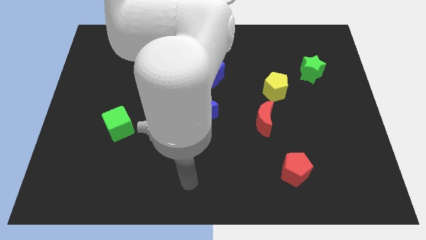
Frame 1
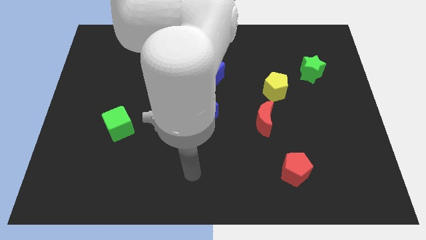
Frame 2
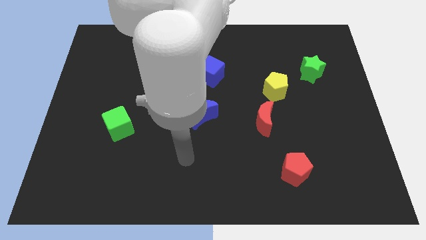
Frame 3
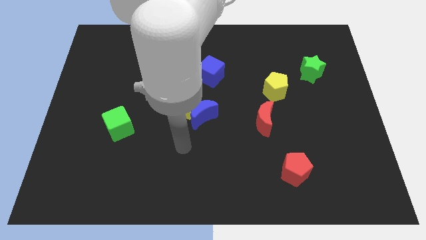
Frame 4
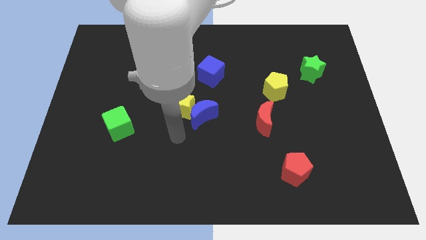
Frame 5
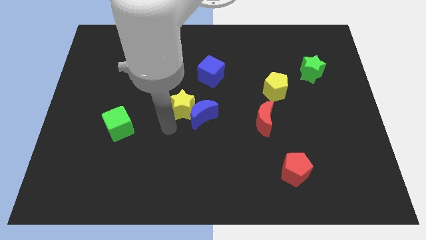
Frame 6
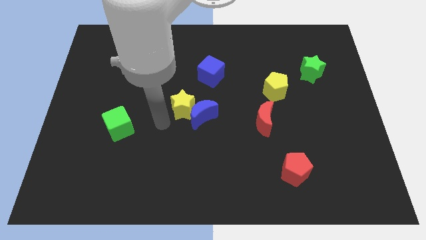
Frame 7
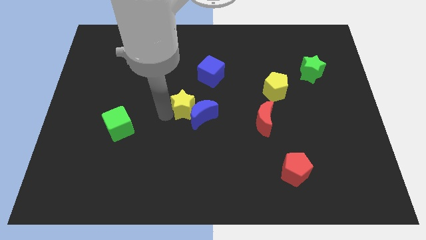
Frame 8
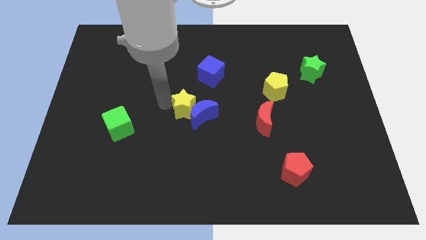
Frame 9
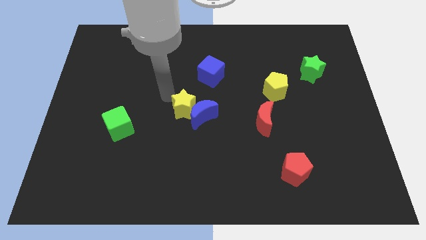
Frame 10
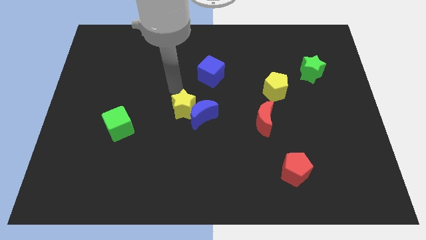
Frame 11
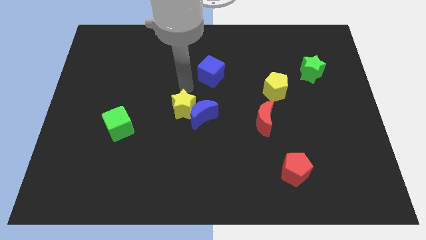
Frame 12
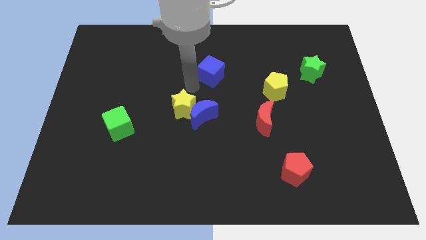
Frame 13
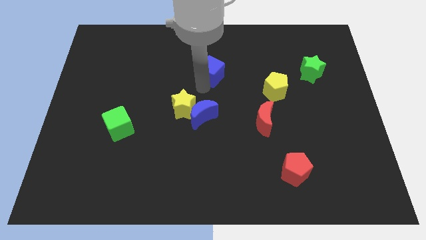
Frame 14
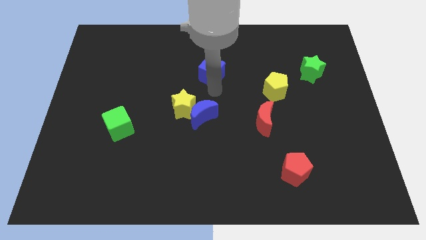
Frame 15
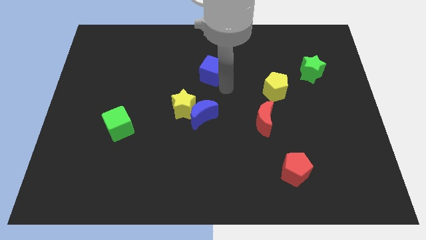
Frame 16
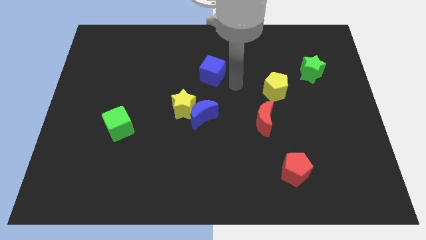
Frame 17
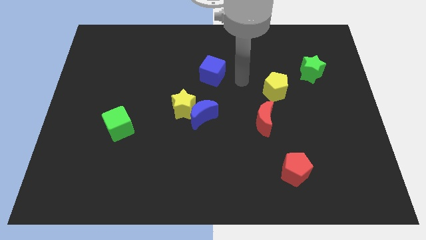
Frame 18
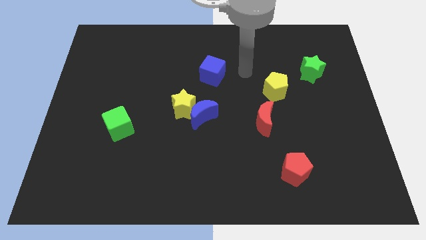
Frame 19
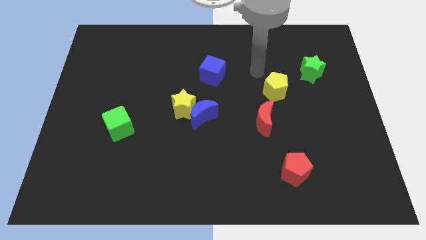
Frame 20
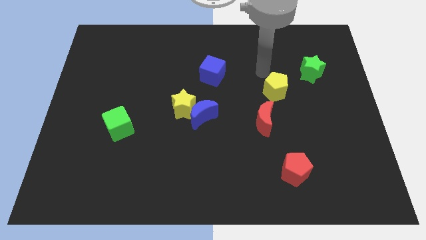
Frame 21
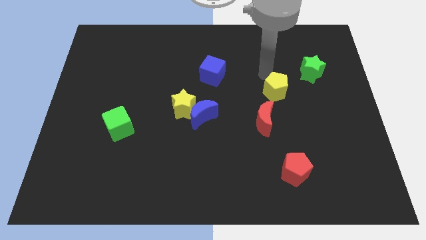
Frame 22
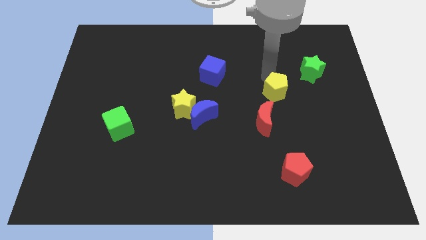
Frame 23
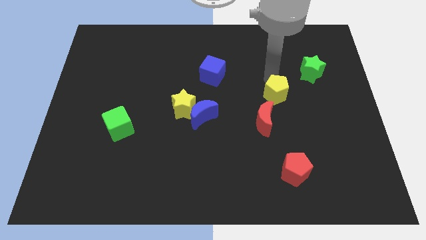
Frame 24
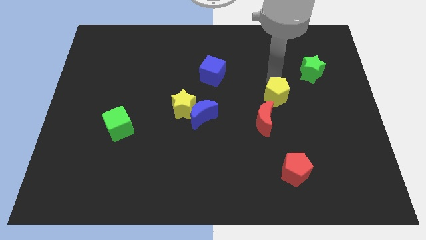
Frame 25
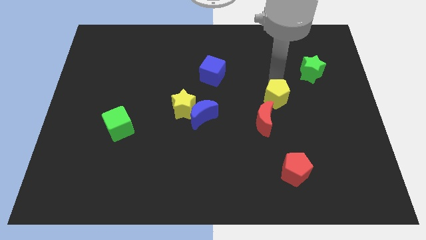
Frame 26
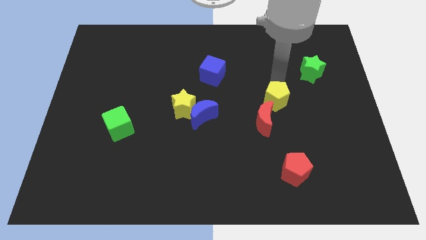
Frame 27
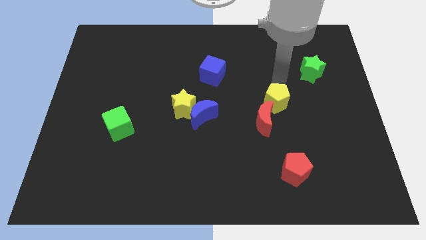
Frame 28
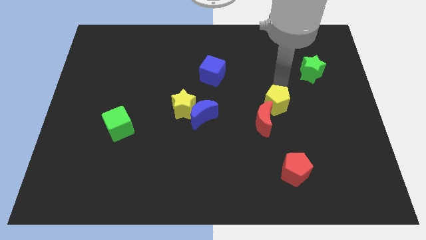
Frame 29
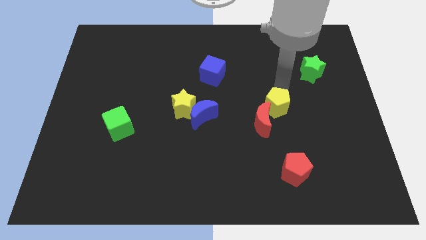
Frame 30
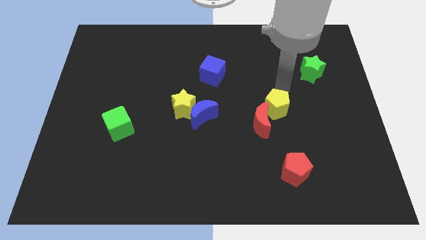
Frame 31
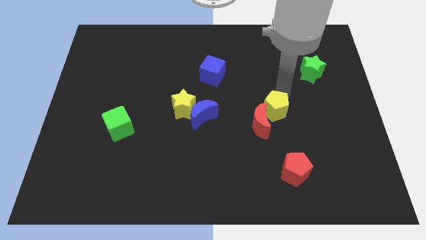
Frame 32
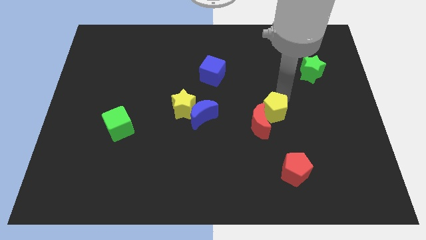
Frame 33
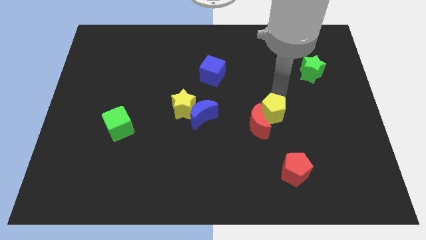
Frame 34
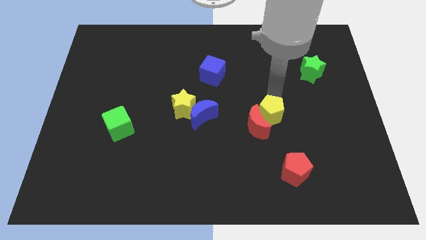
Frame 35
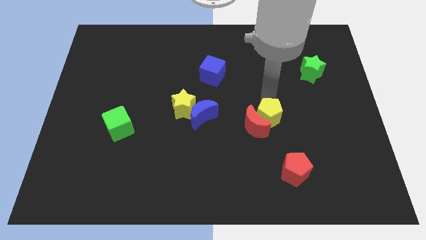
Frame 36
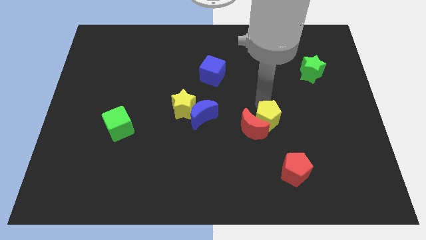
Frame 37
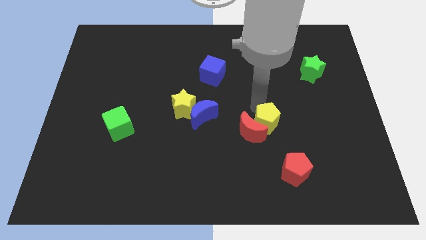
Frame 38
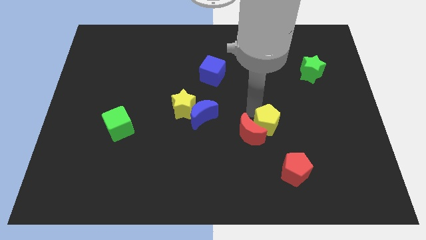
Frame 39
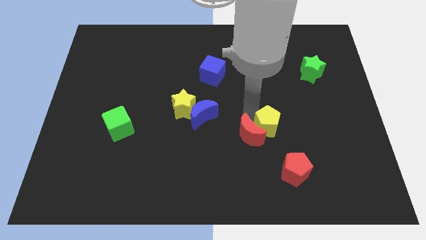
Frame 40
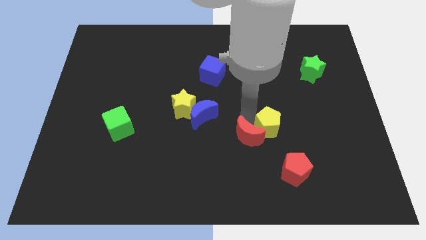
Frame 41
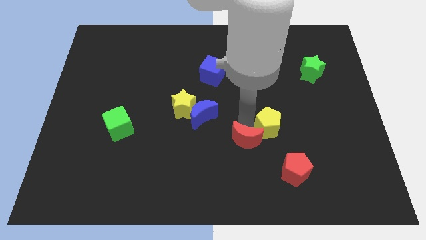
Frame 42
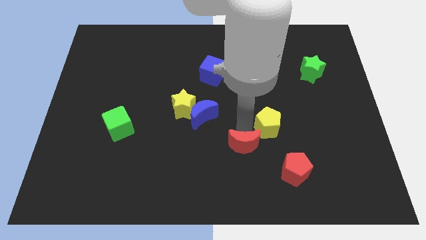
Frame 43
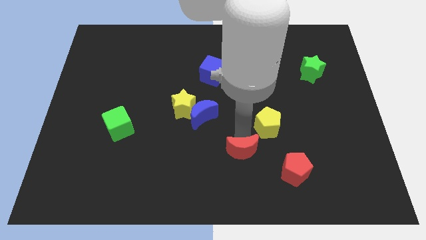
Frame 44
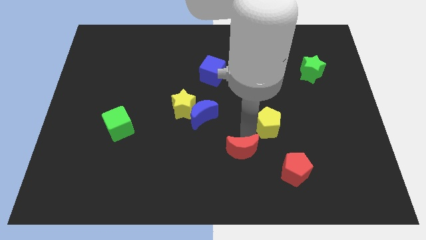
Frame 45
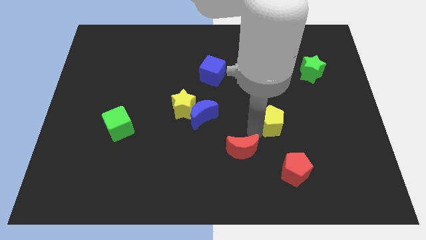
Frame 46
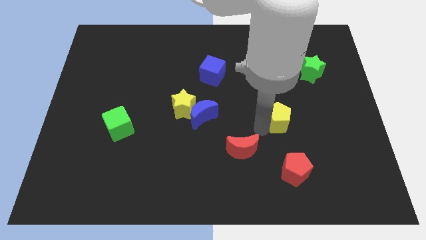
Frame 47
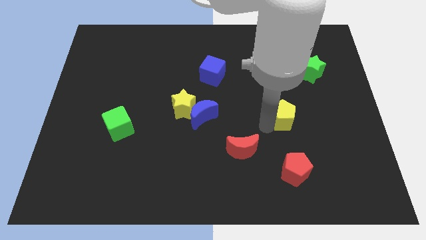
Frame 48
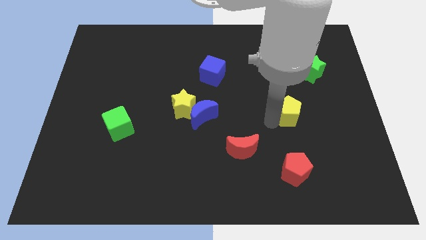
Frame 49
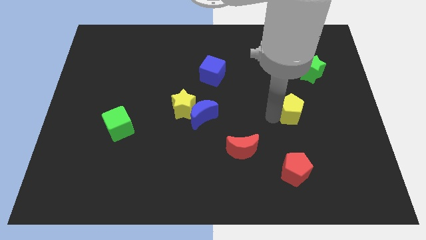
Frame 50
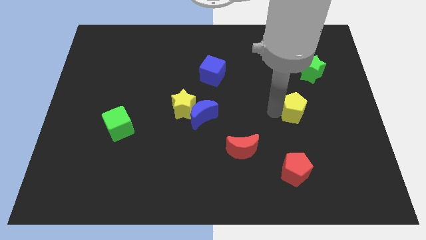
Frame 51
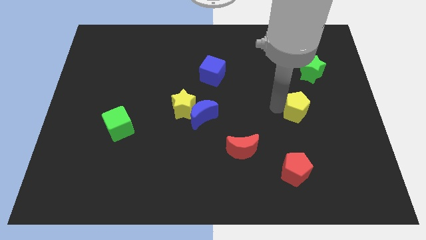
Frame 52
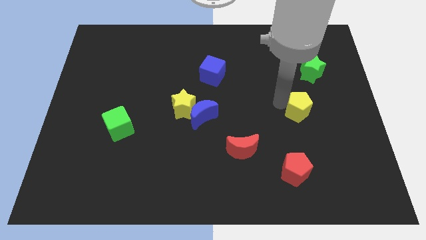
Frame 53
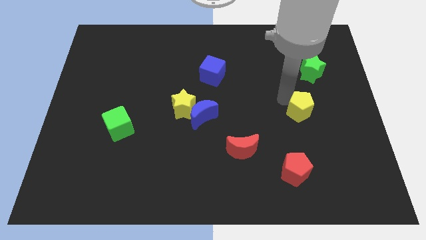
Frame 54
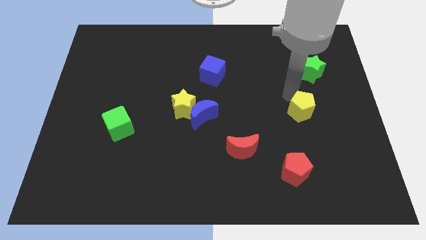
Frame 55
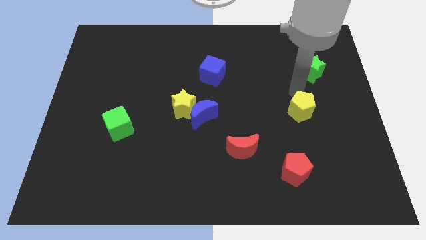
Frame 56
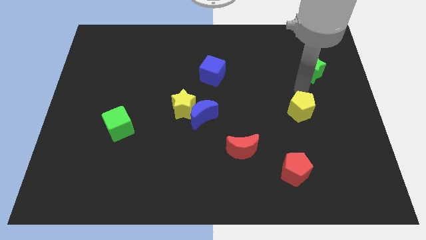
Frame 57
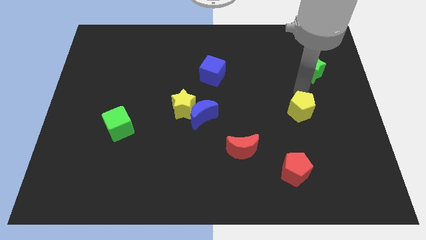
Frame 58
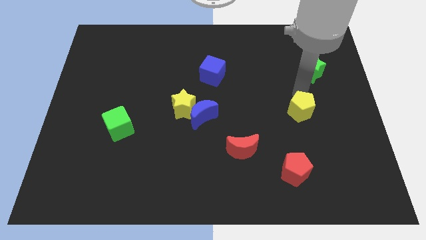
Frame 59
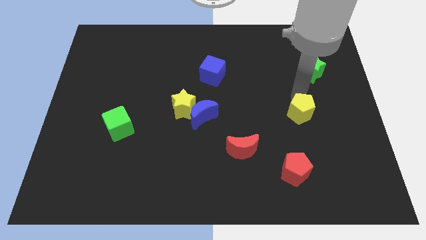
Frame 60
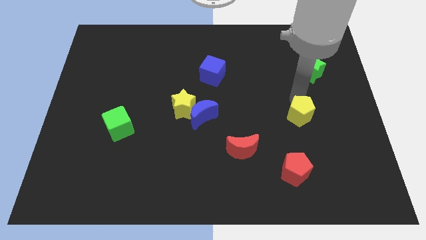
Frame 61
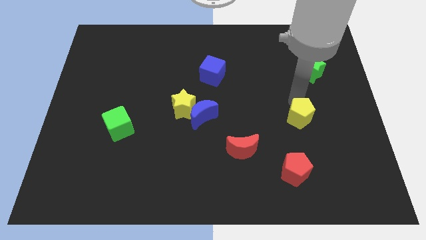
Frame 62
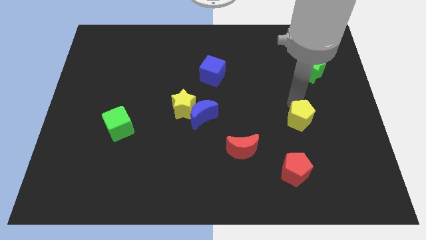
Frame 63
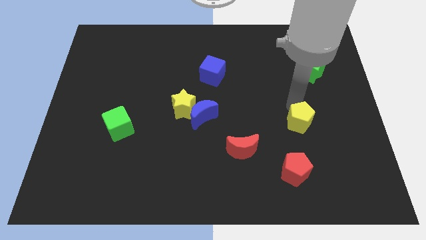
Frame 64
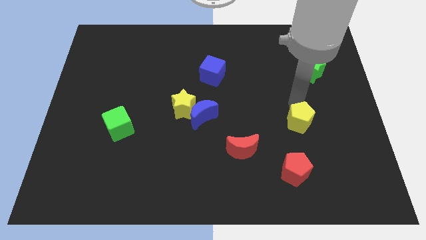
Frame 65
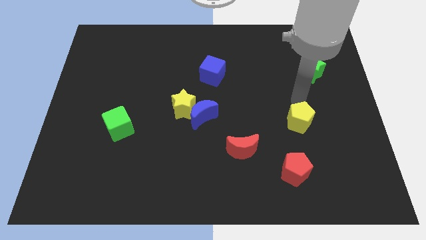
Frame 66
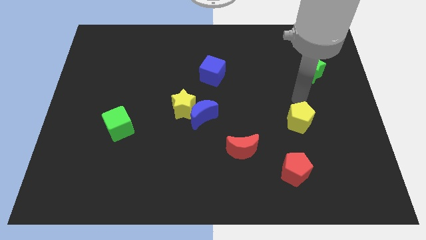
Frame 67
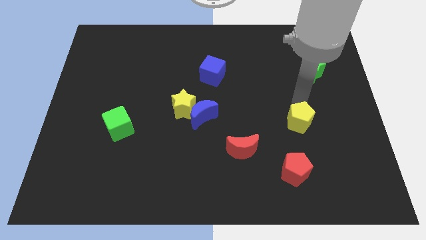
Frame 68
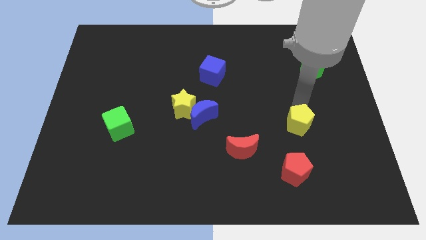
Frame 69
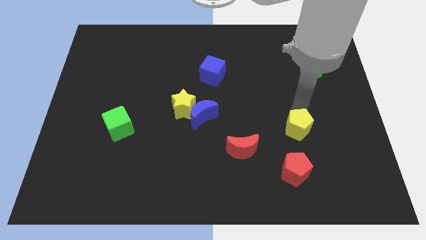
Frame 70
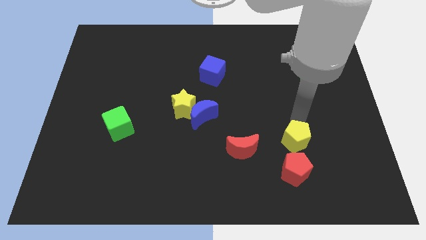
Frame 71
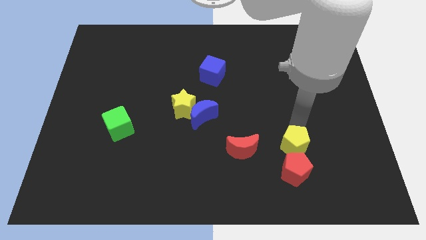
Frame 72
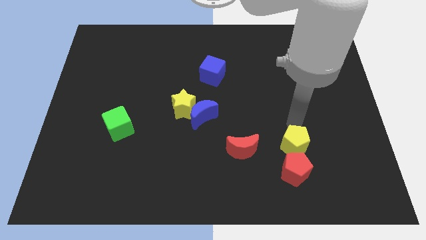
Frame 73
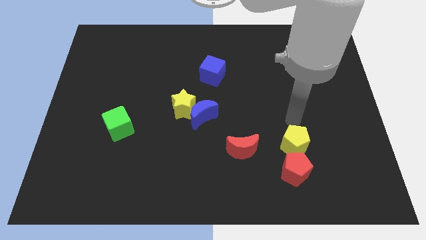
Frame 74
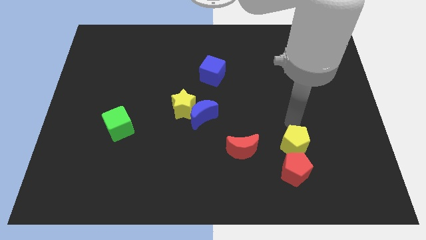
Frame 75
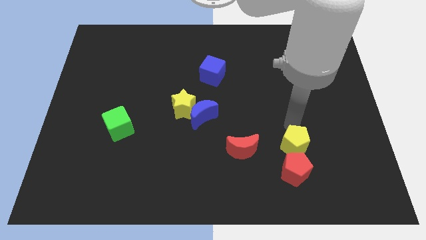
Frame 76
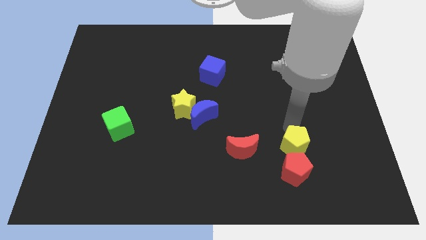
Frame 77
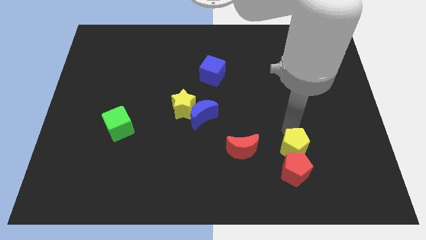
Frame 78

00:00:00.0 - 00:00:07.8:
slide the yellow pentagon towards the red pentagon
